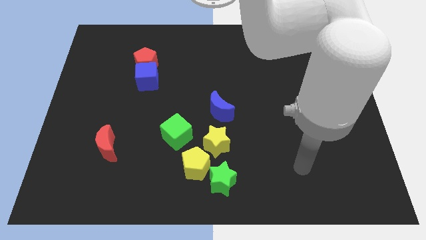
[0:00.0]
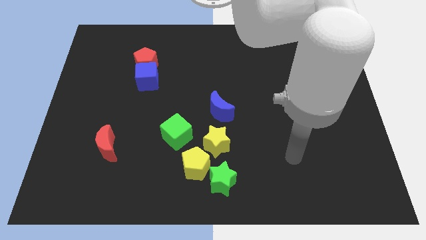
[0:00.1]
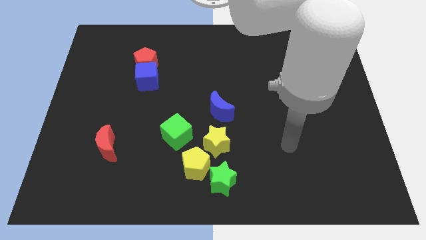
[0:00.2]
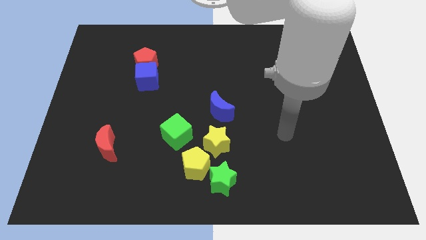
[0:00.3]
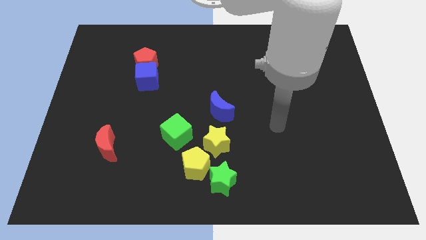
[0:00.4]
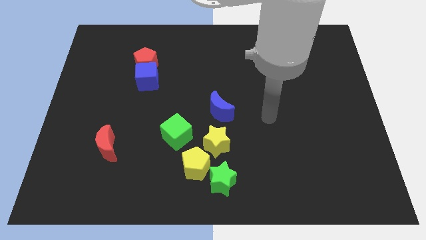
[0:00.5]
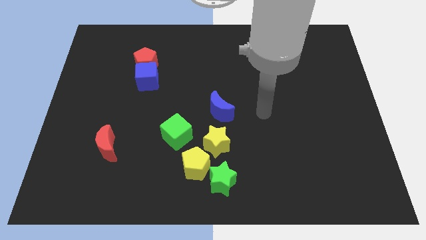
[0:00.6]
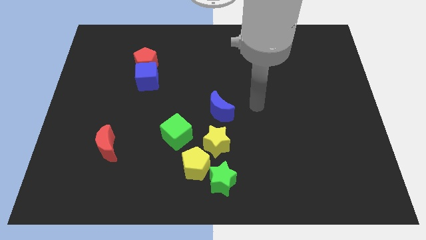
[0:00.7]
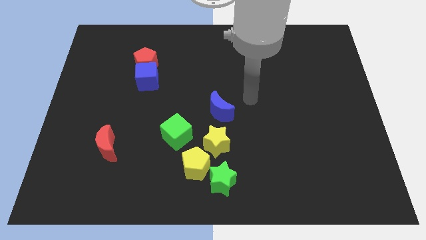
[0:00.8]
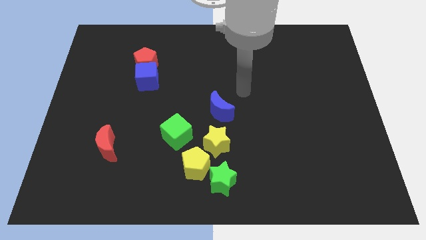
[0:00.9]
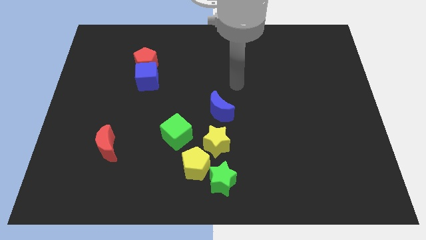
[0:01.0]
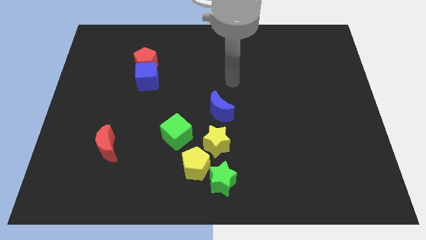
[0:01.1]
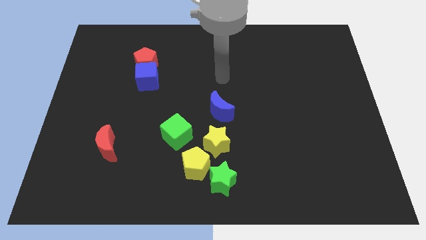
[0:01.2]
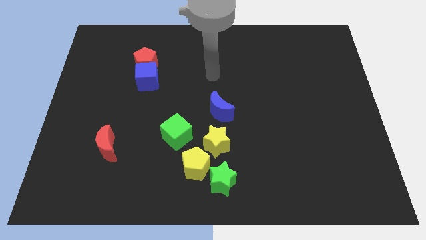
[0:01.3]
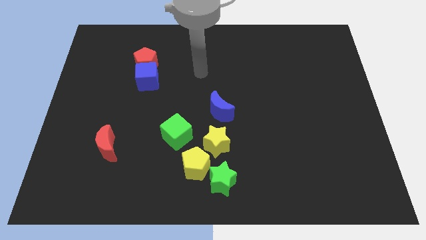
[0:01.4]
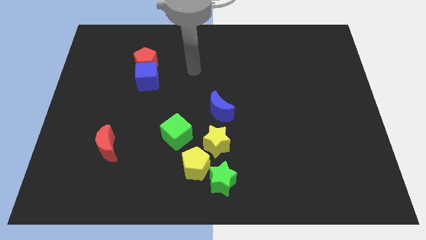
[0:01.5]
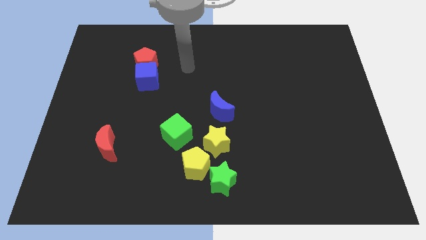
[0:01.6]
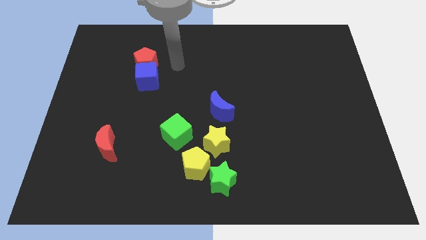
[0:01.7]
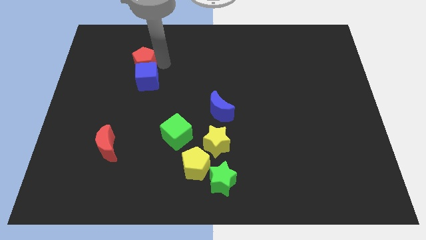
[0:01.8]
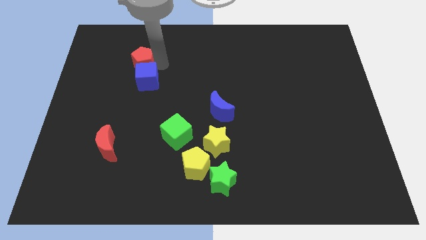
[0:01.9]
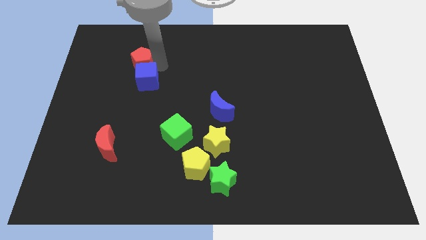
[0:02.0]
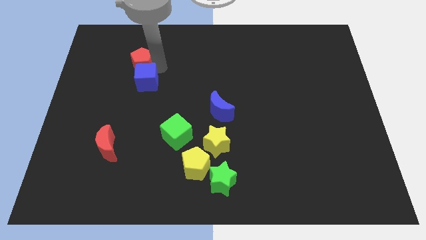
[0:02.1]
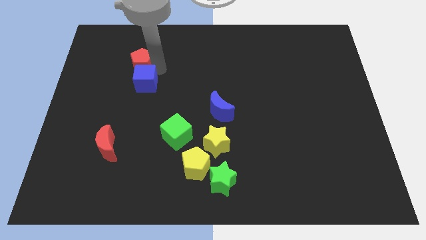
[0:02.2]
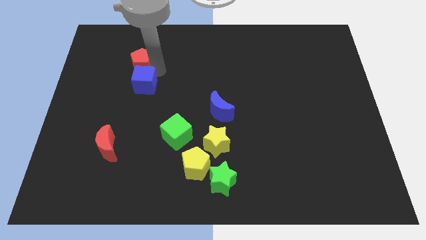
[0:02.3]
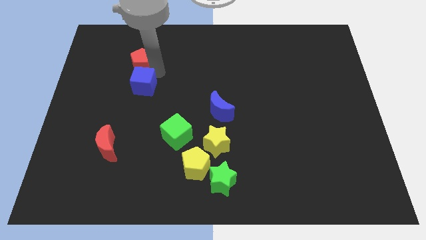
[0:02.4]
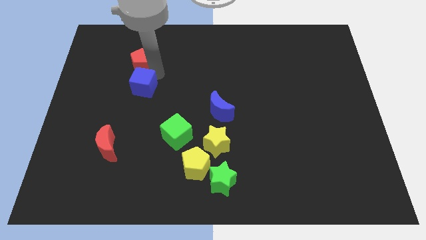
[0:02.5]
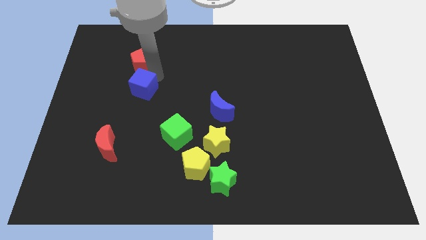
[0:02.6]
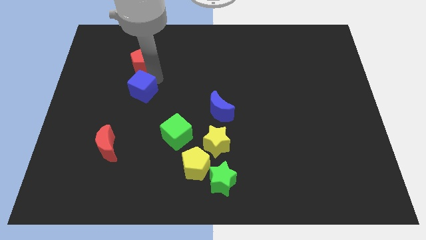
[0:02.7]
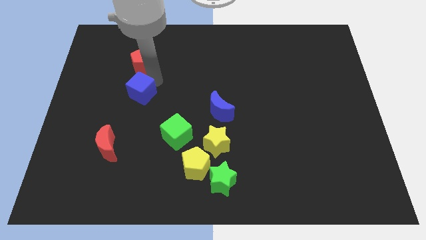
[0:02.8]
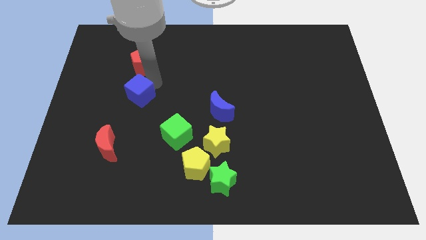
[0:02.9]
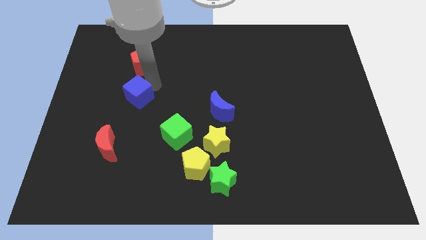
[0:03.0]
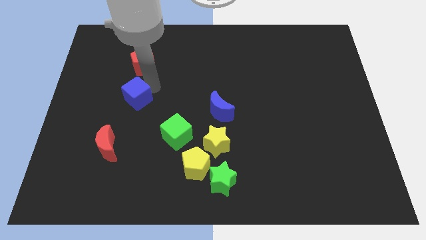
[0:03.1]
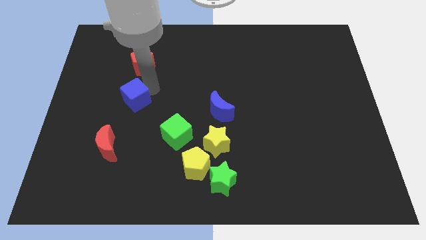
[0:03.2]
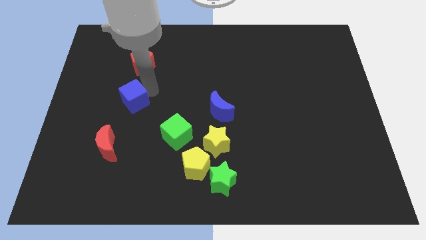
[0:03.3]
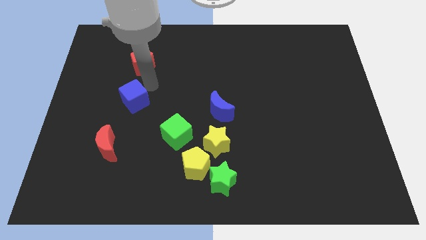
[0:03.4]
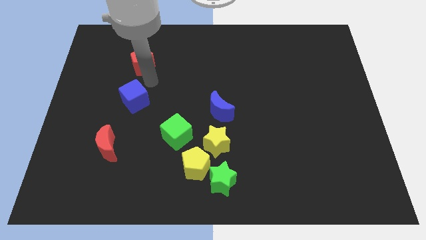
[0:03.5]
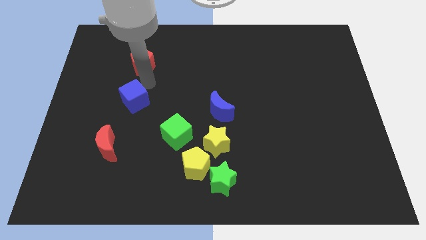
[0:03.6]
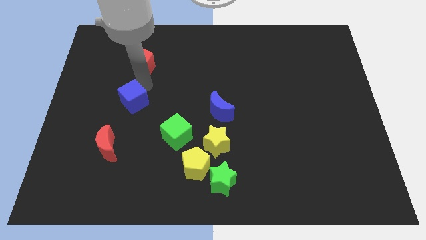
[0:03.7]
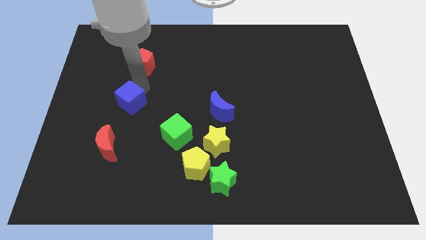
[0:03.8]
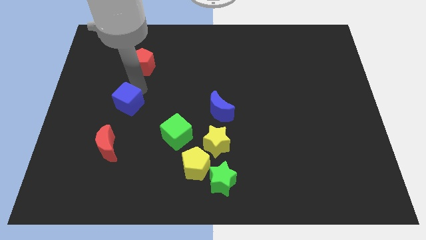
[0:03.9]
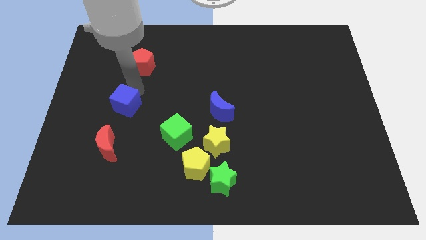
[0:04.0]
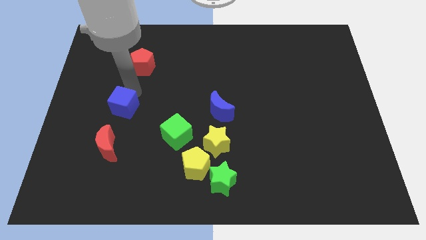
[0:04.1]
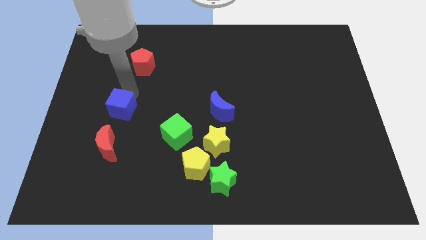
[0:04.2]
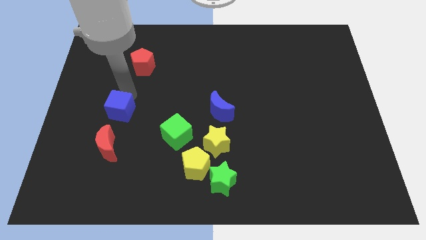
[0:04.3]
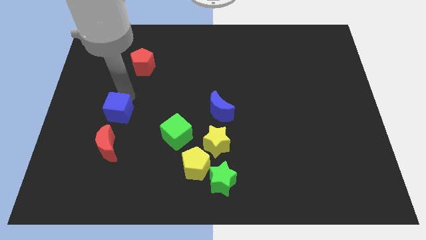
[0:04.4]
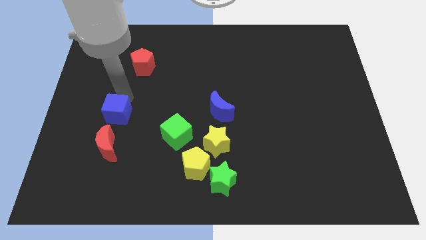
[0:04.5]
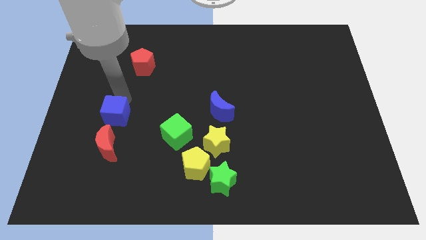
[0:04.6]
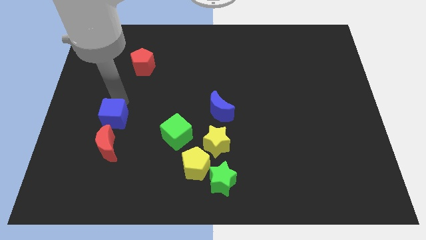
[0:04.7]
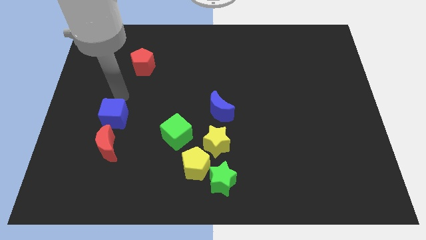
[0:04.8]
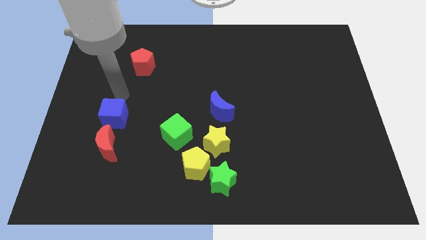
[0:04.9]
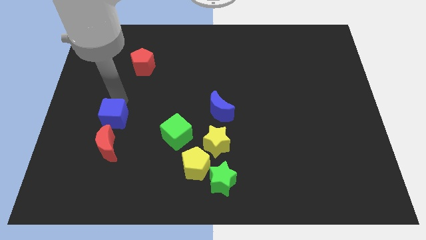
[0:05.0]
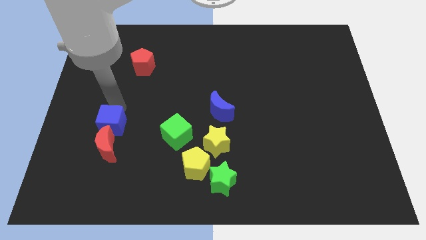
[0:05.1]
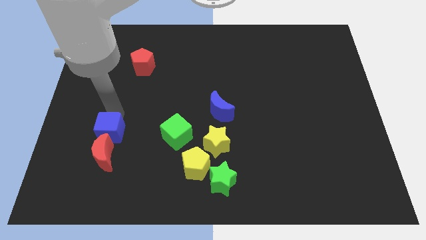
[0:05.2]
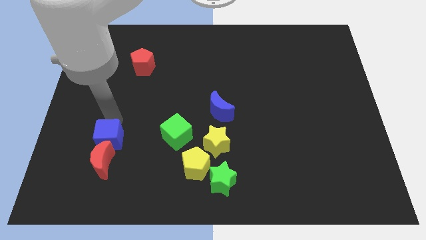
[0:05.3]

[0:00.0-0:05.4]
move the blue cube next to the red moon

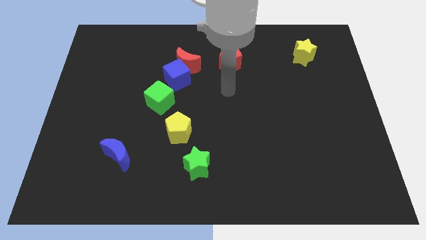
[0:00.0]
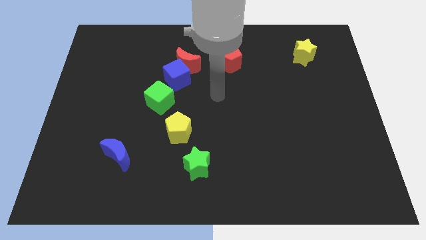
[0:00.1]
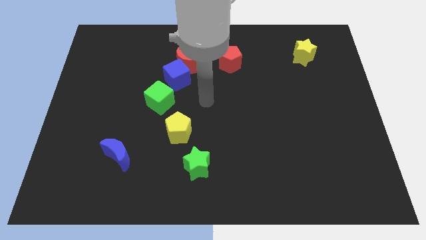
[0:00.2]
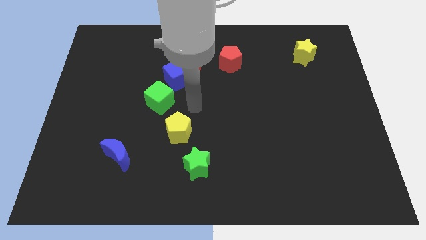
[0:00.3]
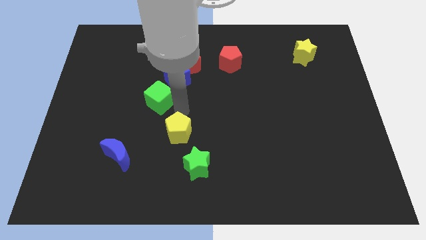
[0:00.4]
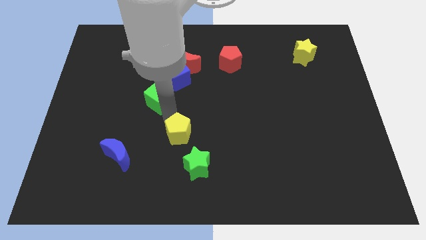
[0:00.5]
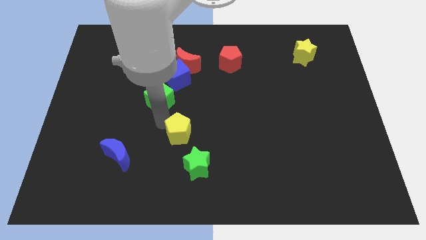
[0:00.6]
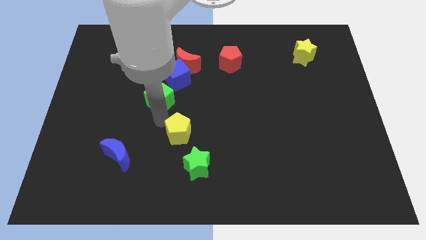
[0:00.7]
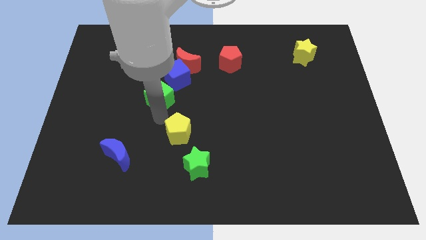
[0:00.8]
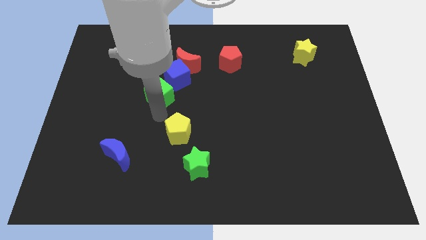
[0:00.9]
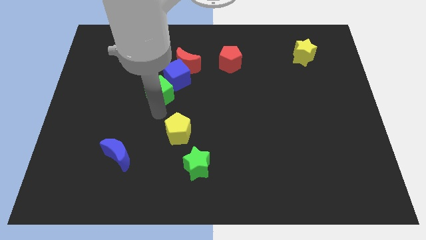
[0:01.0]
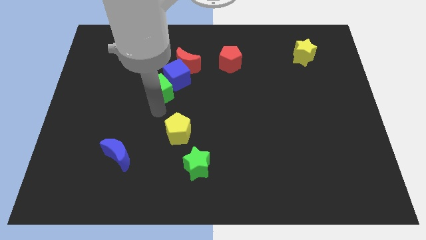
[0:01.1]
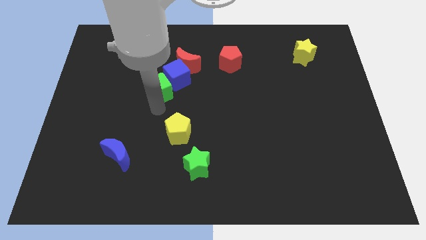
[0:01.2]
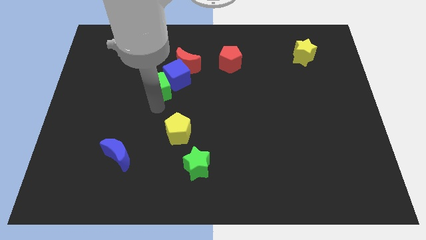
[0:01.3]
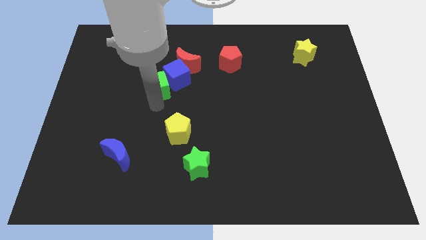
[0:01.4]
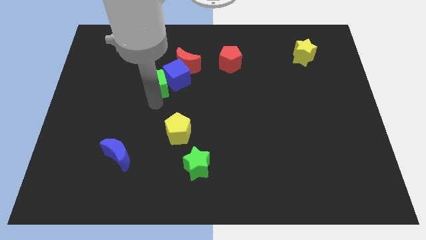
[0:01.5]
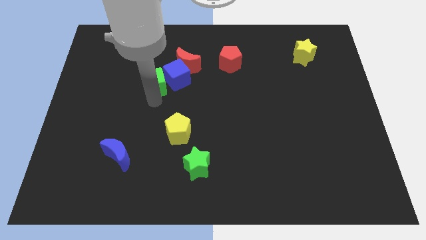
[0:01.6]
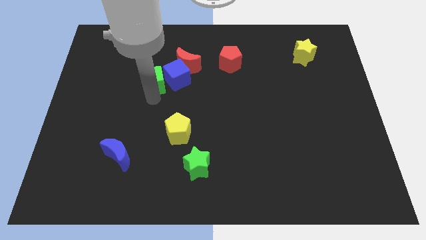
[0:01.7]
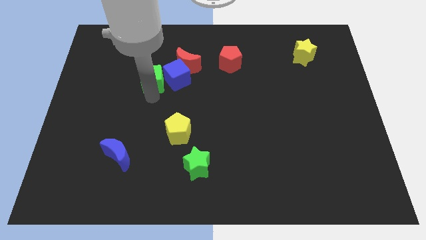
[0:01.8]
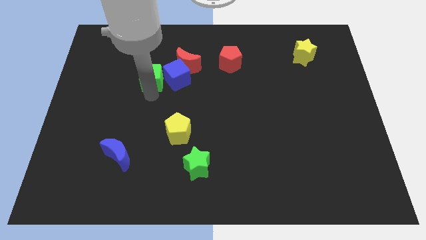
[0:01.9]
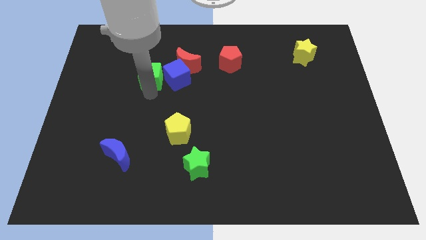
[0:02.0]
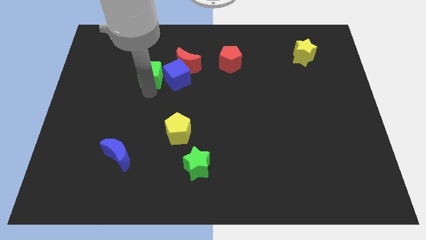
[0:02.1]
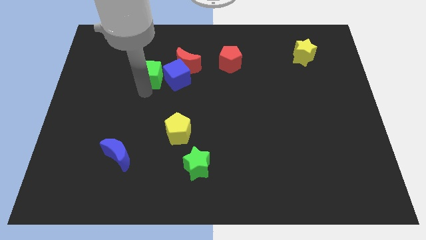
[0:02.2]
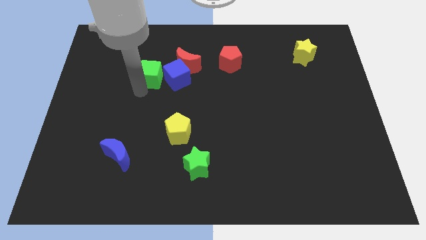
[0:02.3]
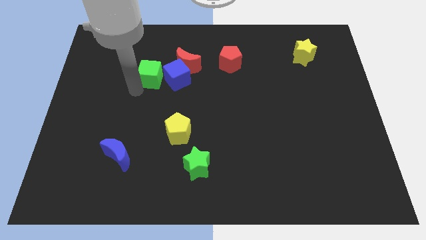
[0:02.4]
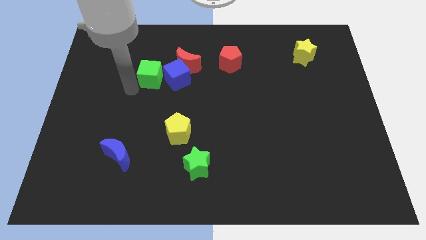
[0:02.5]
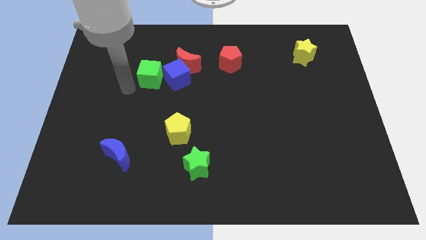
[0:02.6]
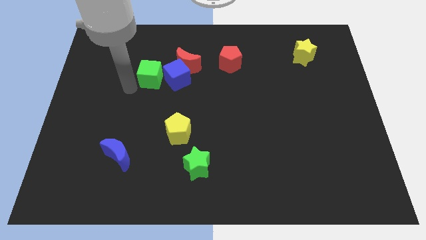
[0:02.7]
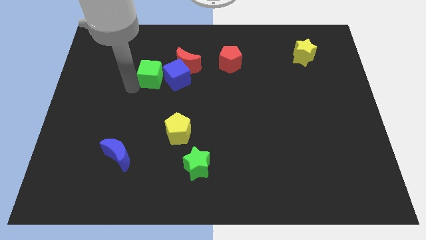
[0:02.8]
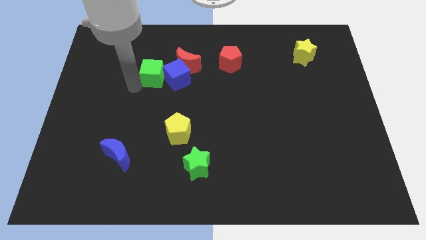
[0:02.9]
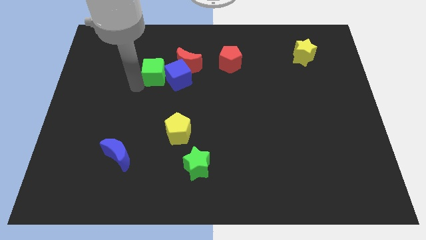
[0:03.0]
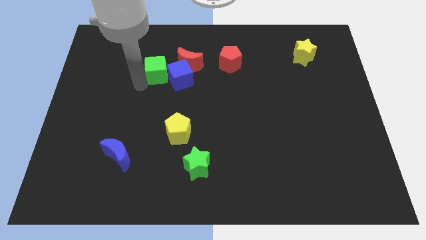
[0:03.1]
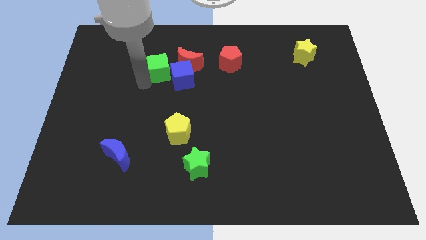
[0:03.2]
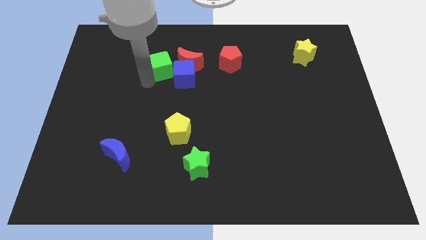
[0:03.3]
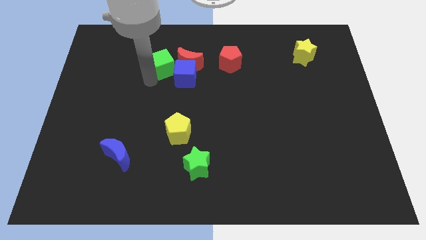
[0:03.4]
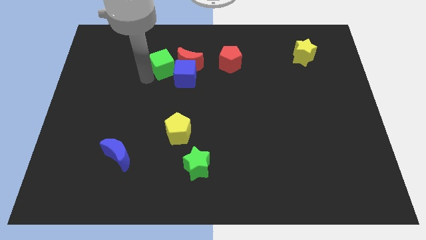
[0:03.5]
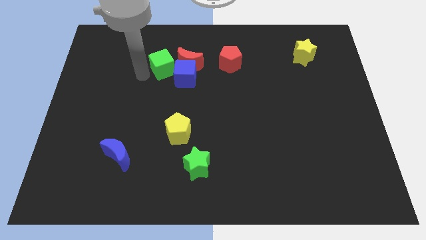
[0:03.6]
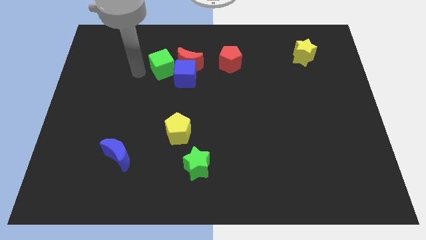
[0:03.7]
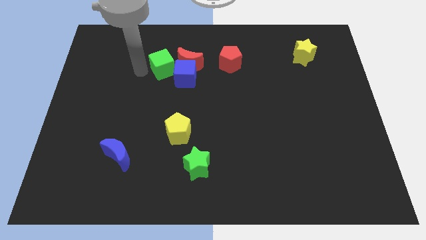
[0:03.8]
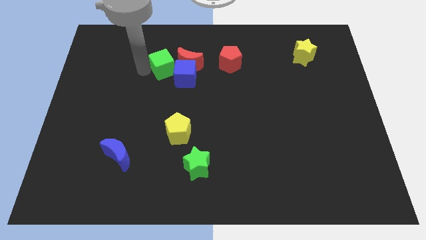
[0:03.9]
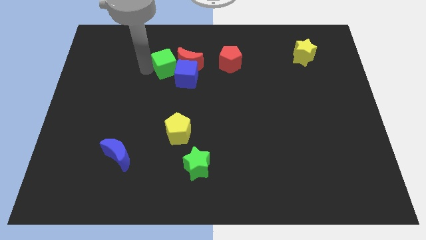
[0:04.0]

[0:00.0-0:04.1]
move the green cube close to the red moon
